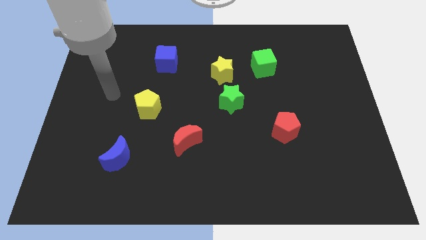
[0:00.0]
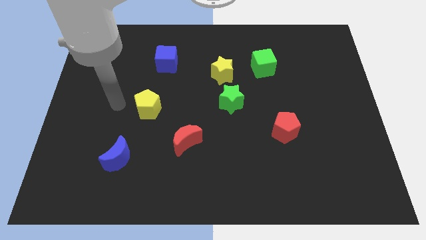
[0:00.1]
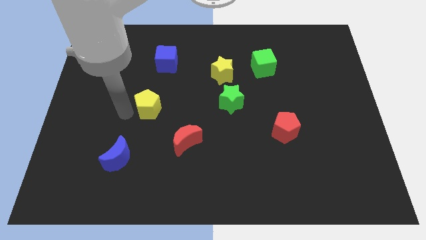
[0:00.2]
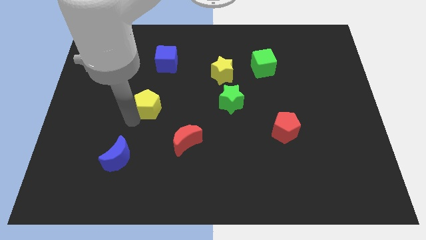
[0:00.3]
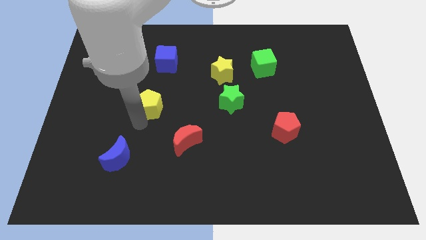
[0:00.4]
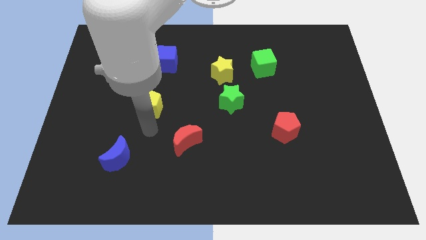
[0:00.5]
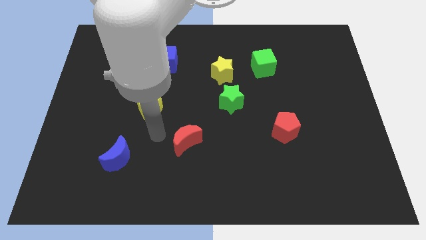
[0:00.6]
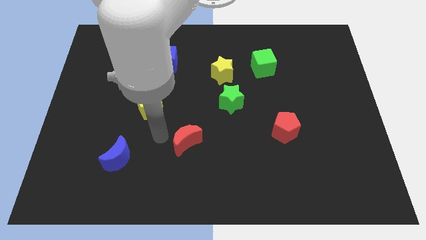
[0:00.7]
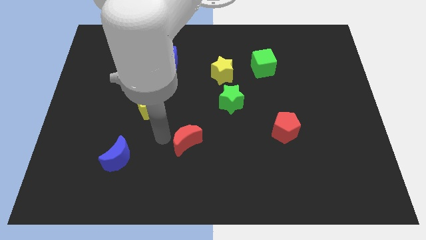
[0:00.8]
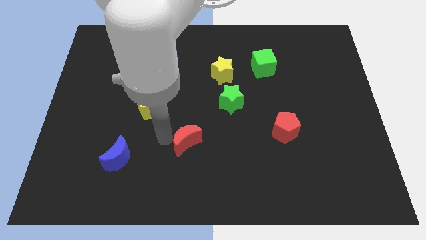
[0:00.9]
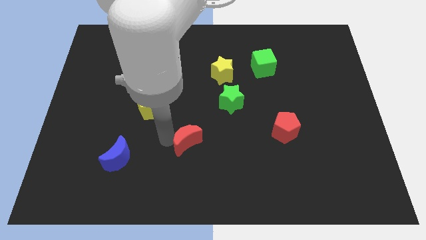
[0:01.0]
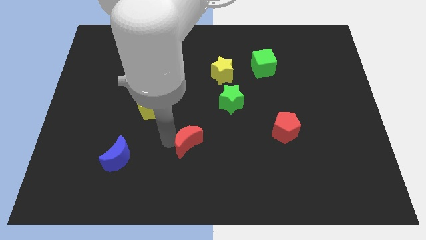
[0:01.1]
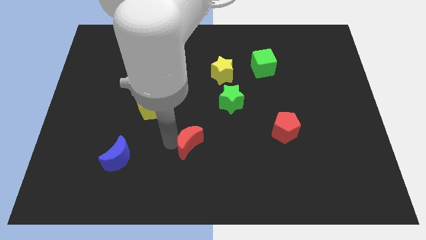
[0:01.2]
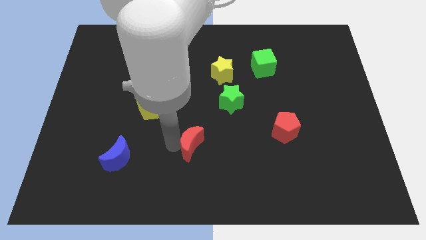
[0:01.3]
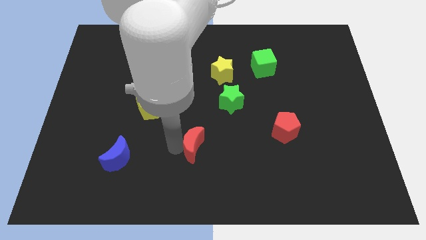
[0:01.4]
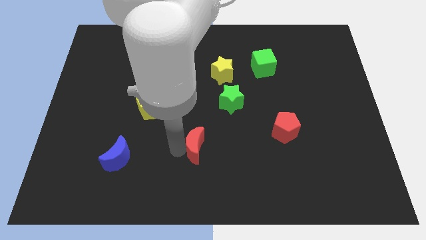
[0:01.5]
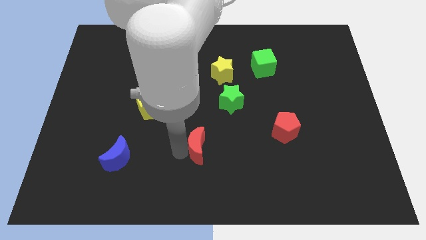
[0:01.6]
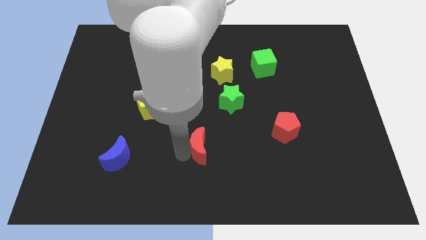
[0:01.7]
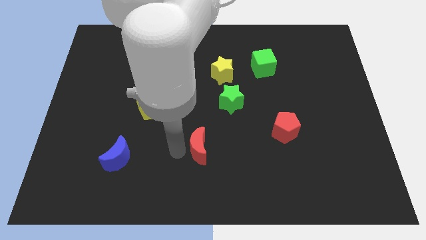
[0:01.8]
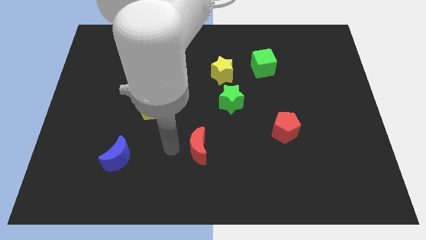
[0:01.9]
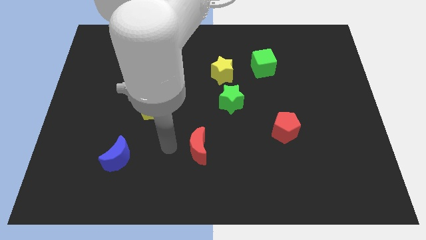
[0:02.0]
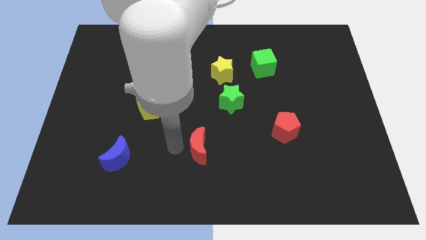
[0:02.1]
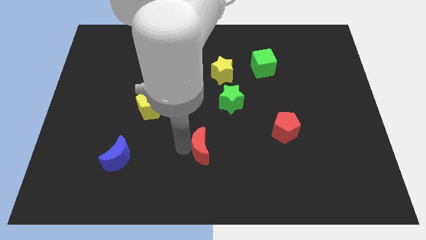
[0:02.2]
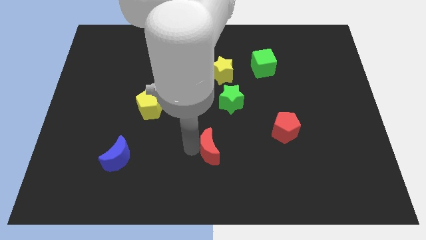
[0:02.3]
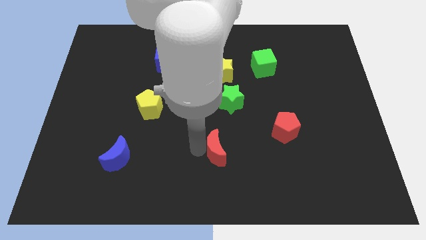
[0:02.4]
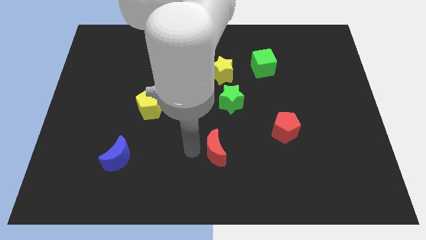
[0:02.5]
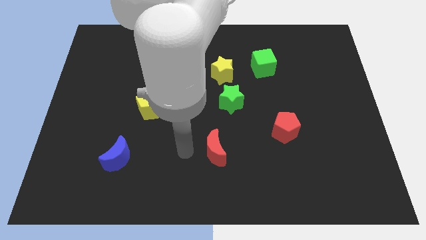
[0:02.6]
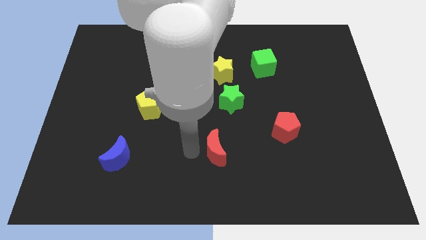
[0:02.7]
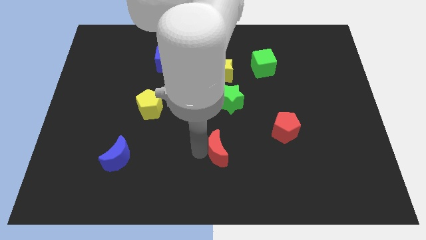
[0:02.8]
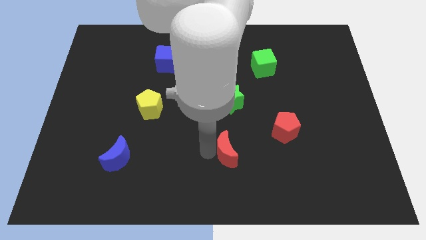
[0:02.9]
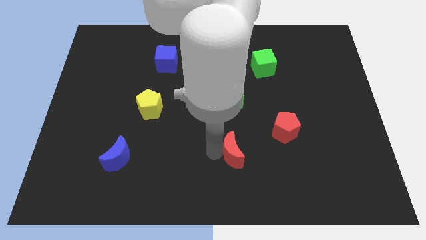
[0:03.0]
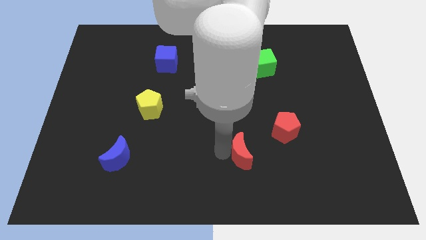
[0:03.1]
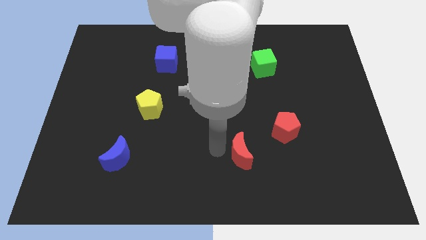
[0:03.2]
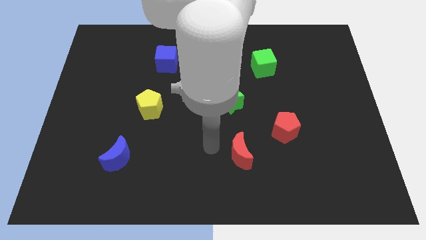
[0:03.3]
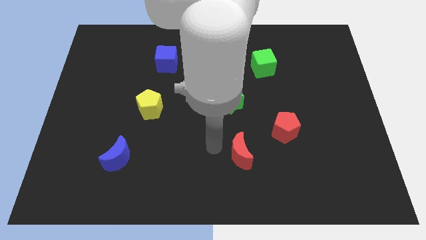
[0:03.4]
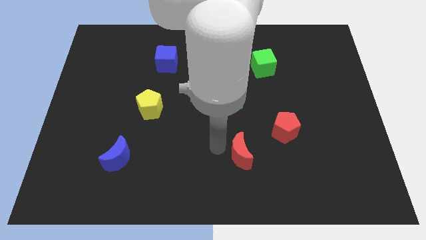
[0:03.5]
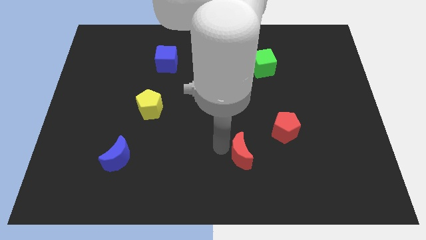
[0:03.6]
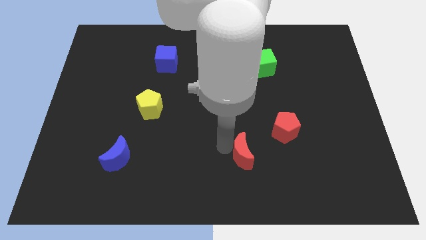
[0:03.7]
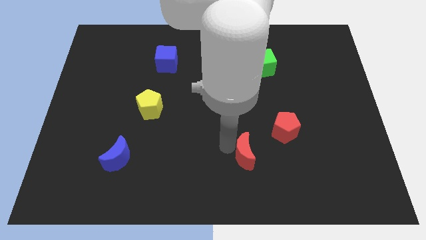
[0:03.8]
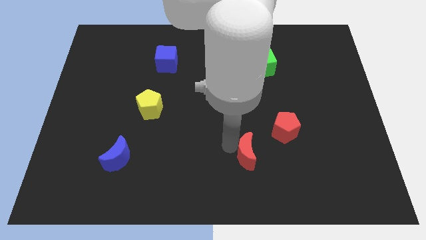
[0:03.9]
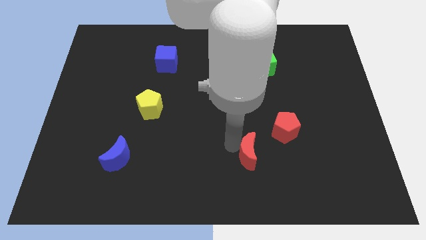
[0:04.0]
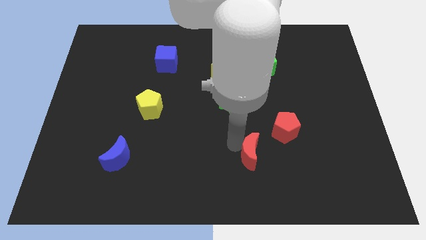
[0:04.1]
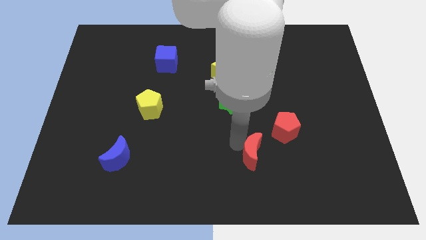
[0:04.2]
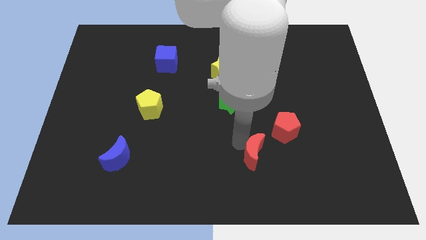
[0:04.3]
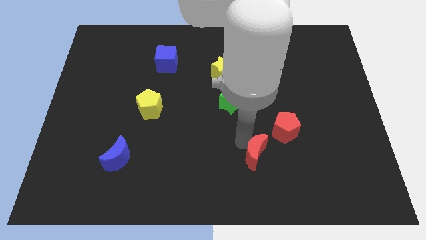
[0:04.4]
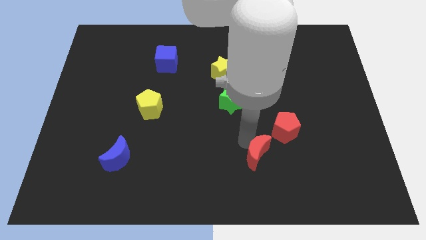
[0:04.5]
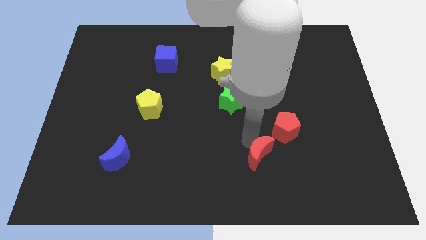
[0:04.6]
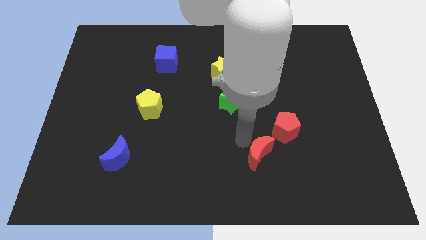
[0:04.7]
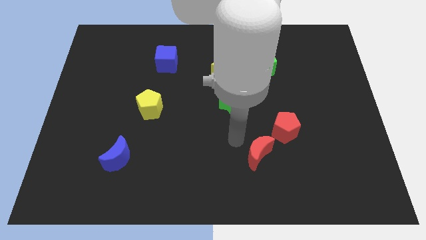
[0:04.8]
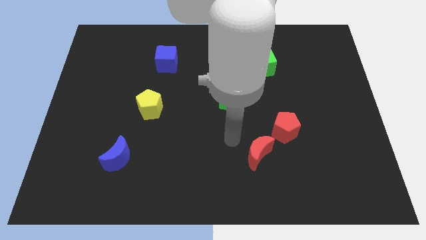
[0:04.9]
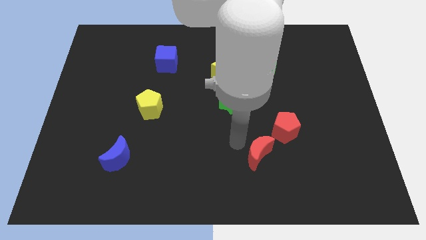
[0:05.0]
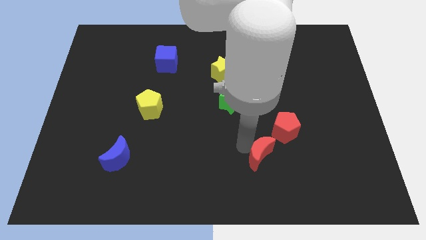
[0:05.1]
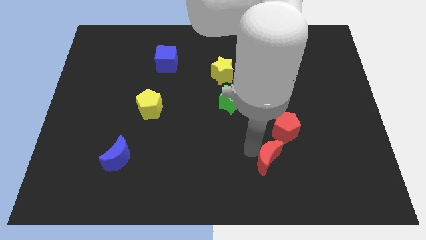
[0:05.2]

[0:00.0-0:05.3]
push the red moon below the red pentagon

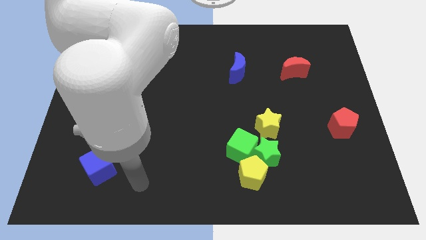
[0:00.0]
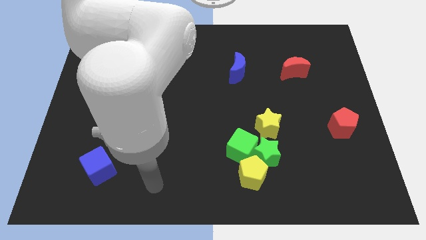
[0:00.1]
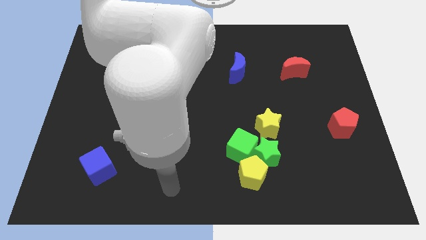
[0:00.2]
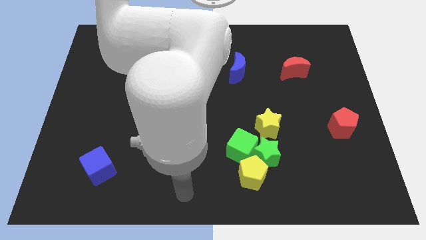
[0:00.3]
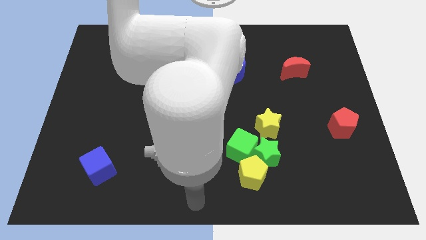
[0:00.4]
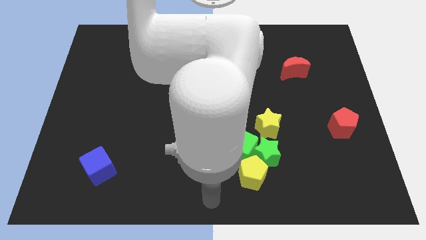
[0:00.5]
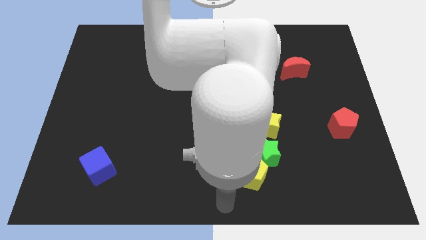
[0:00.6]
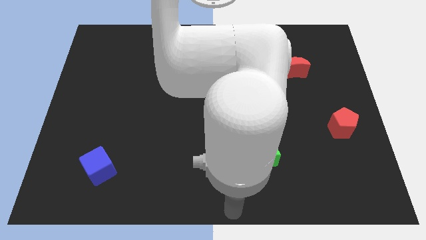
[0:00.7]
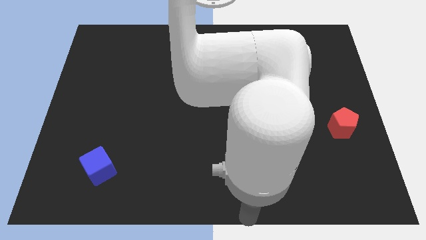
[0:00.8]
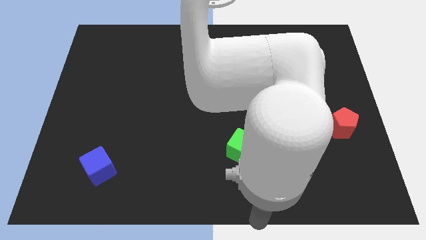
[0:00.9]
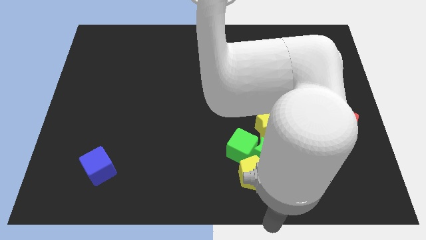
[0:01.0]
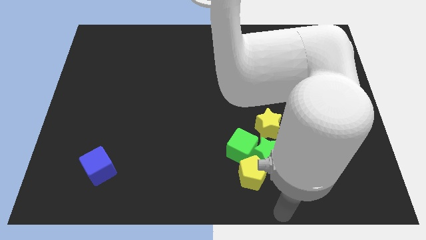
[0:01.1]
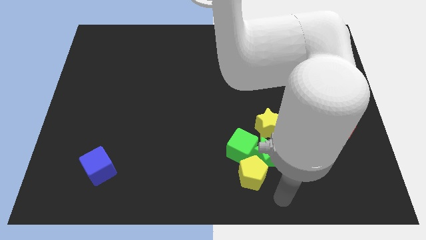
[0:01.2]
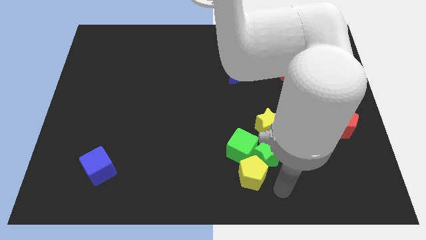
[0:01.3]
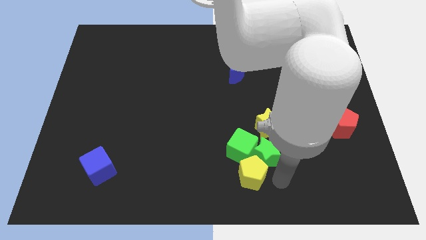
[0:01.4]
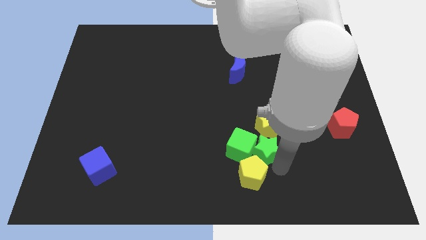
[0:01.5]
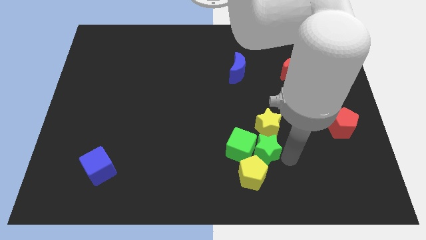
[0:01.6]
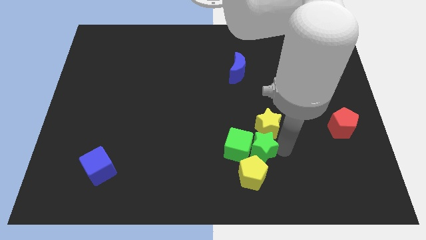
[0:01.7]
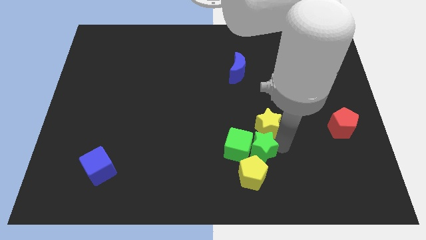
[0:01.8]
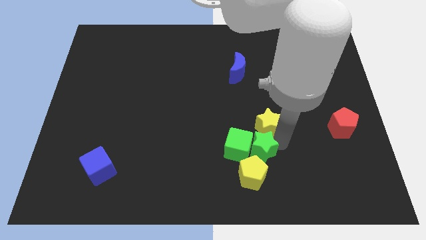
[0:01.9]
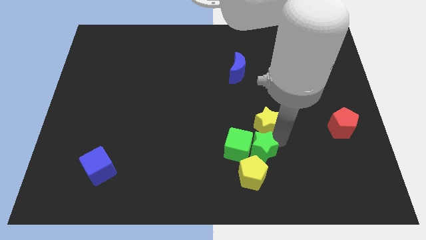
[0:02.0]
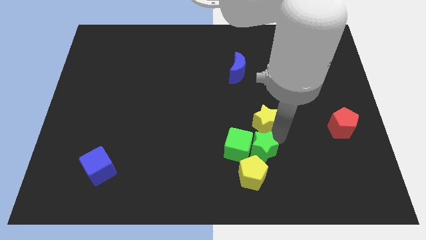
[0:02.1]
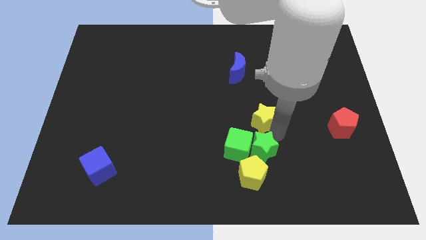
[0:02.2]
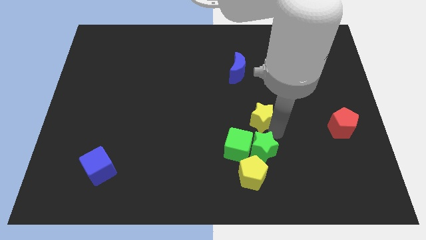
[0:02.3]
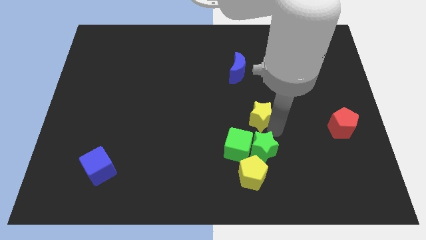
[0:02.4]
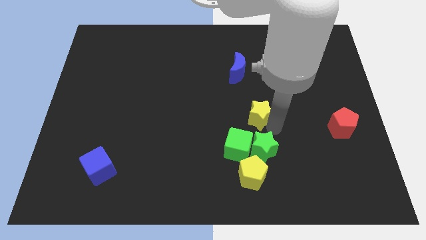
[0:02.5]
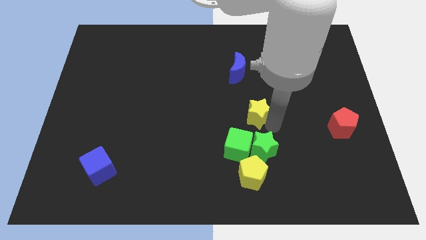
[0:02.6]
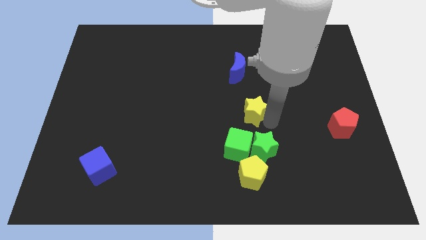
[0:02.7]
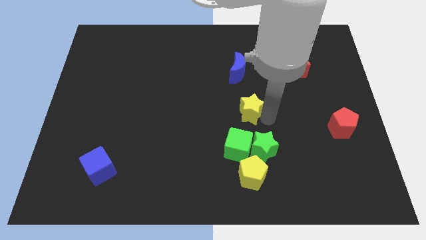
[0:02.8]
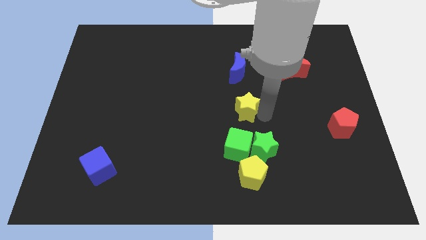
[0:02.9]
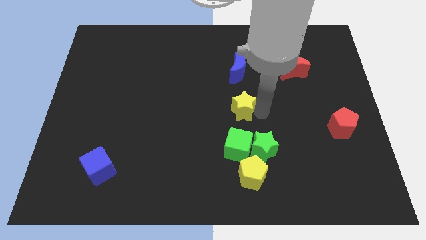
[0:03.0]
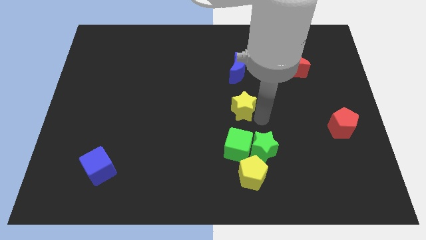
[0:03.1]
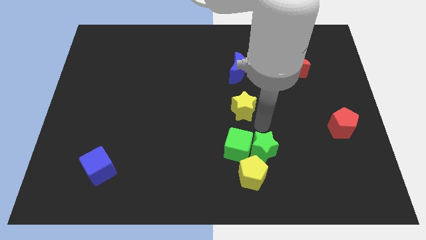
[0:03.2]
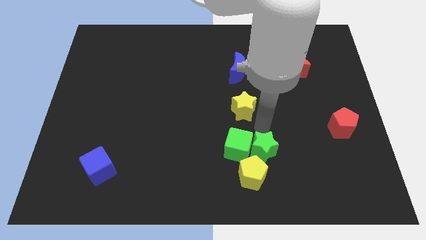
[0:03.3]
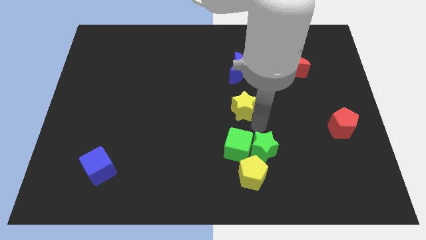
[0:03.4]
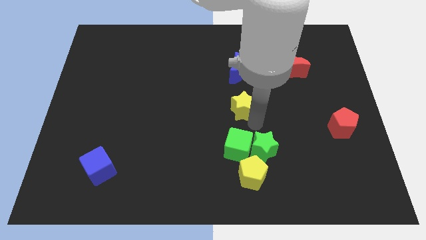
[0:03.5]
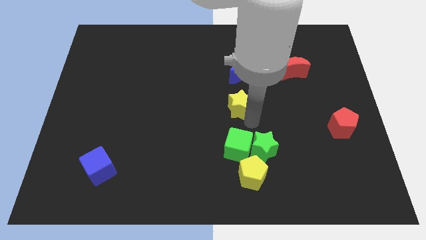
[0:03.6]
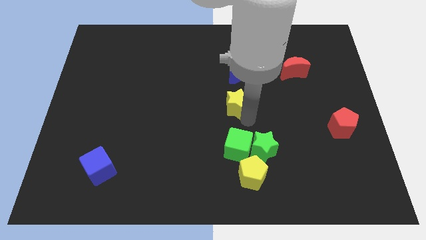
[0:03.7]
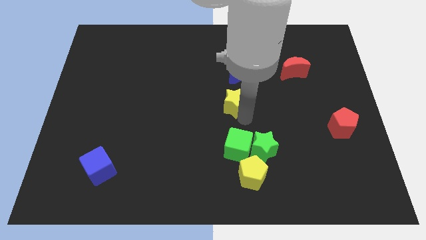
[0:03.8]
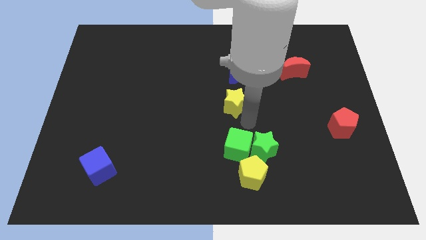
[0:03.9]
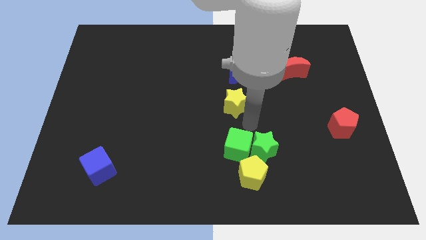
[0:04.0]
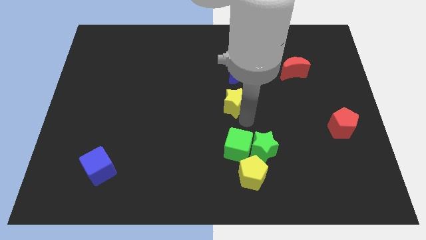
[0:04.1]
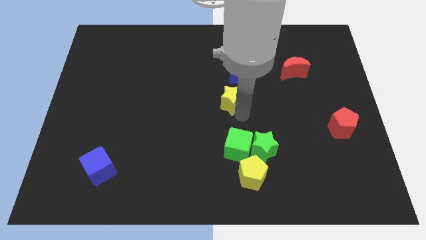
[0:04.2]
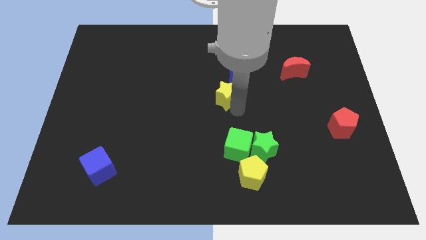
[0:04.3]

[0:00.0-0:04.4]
push the yellow star diagonally down and to the left of the blue moon
